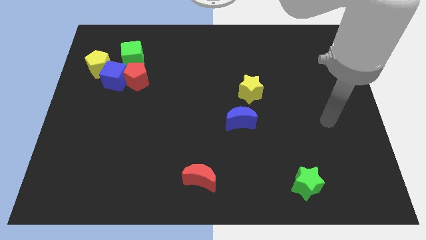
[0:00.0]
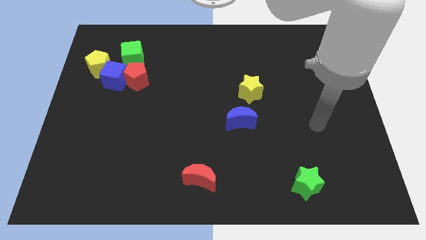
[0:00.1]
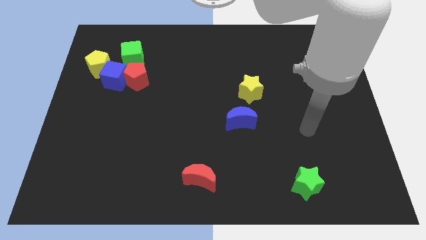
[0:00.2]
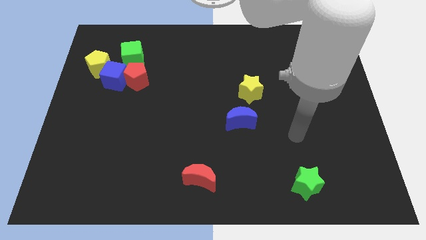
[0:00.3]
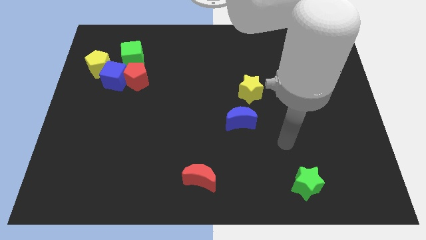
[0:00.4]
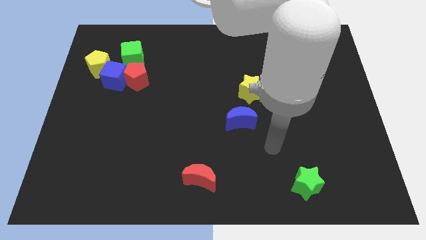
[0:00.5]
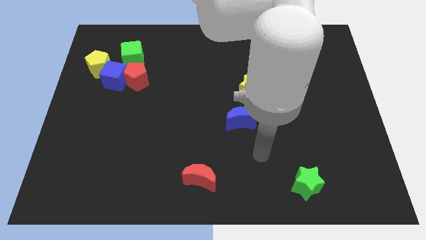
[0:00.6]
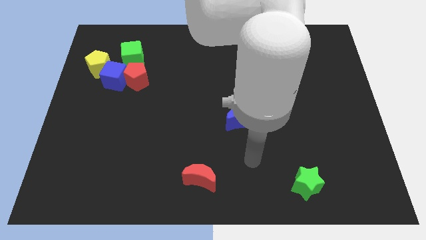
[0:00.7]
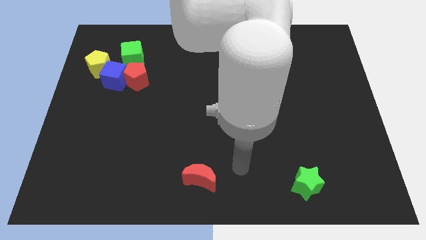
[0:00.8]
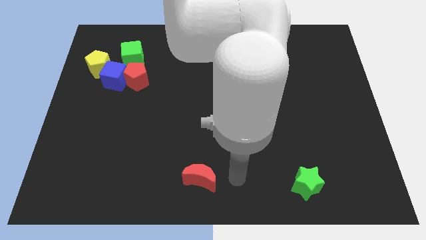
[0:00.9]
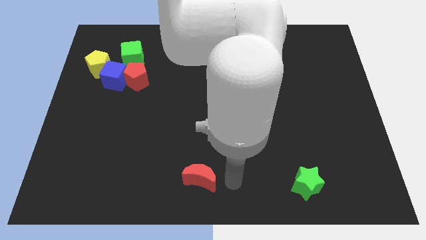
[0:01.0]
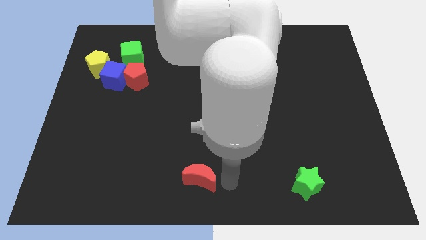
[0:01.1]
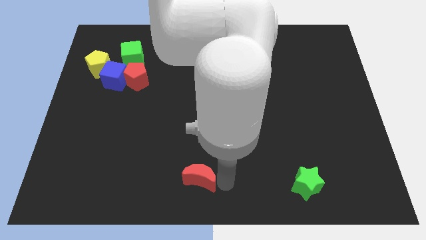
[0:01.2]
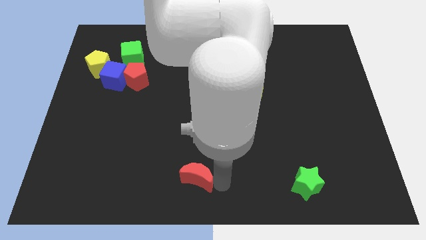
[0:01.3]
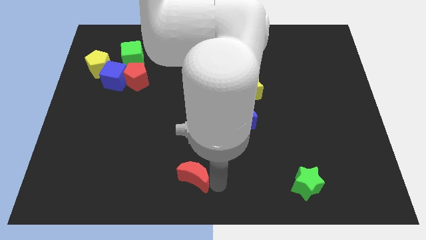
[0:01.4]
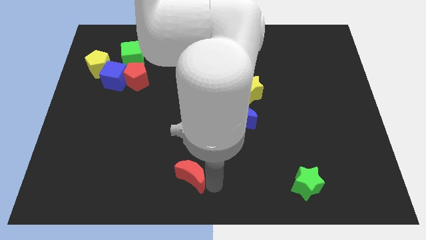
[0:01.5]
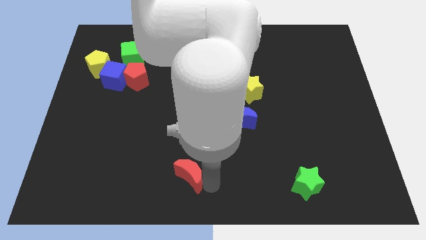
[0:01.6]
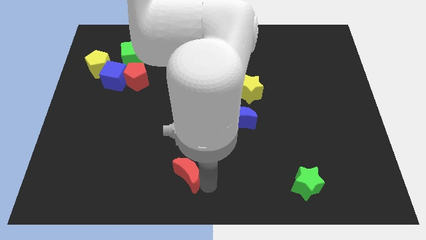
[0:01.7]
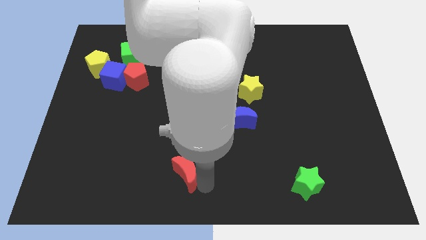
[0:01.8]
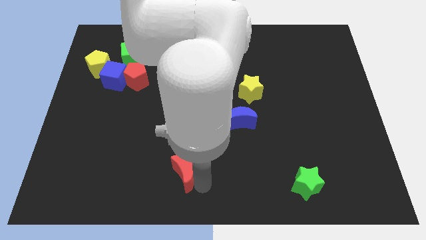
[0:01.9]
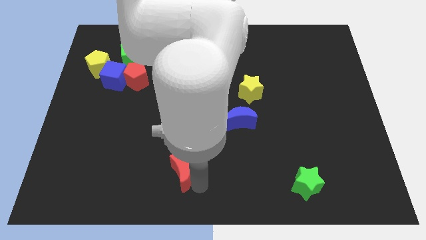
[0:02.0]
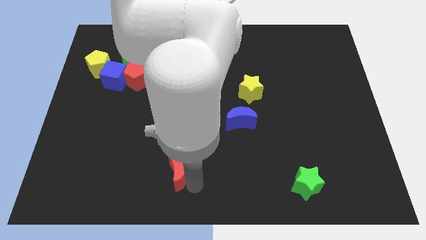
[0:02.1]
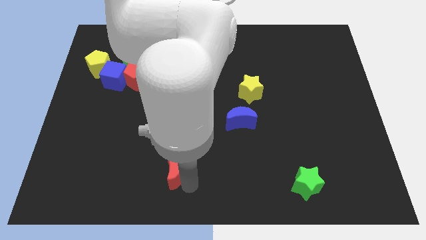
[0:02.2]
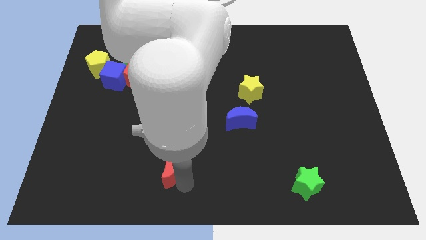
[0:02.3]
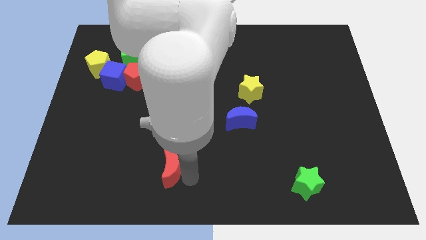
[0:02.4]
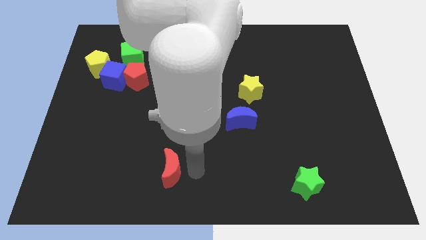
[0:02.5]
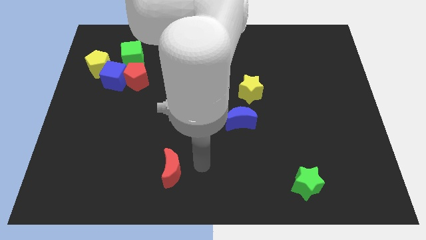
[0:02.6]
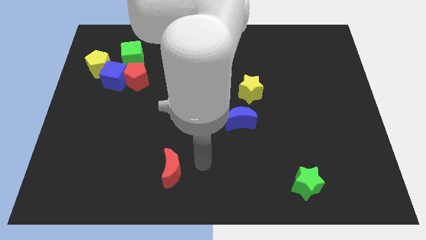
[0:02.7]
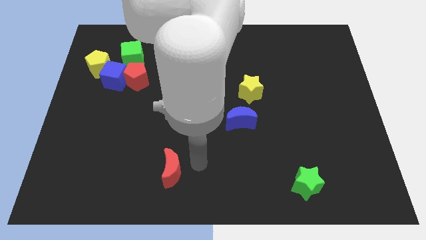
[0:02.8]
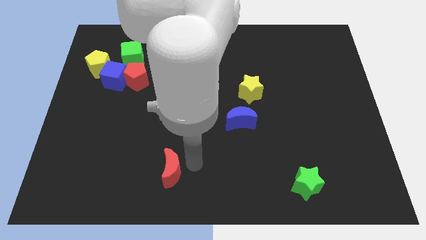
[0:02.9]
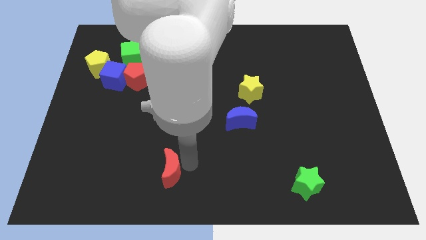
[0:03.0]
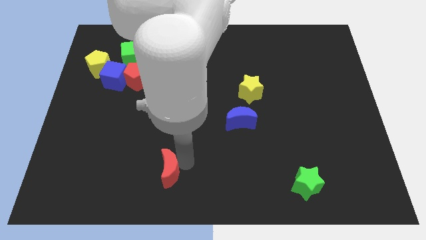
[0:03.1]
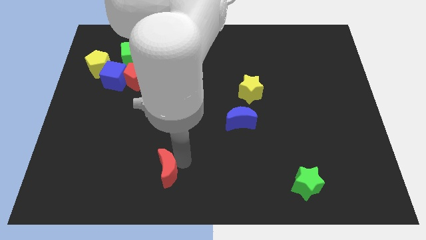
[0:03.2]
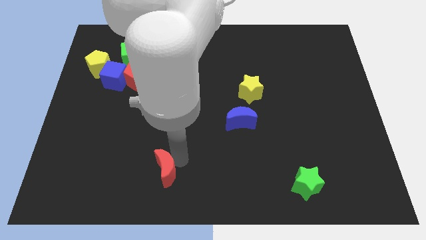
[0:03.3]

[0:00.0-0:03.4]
slightly move the red moon to the left

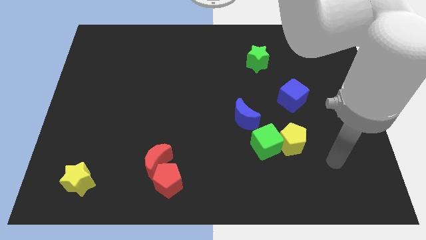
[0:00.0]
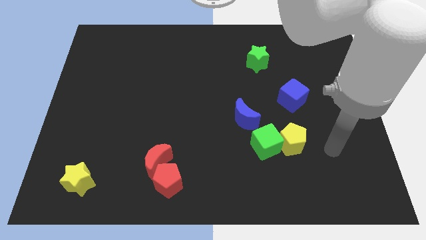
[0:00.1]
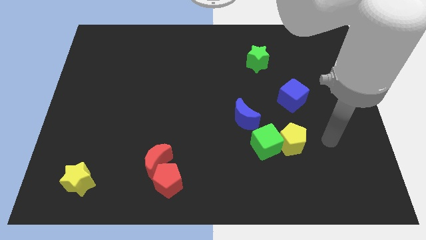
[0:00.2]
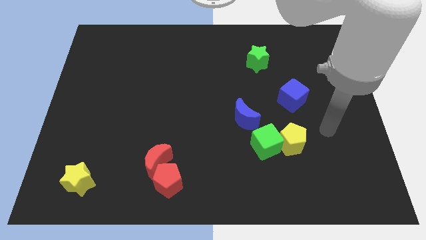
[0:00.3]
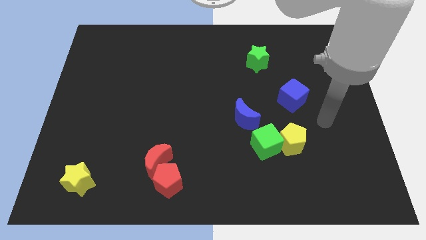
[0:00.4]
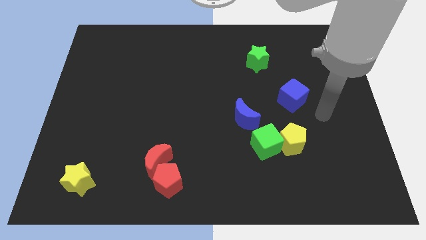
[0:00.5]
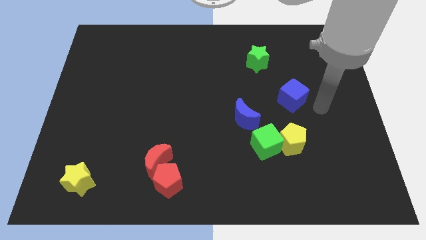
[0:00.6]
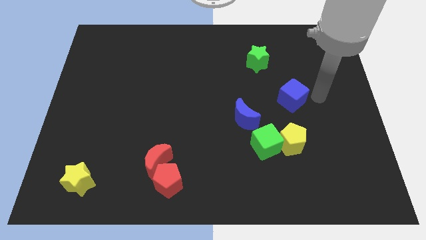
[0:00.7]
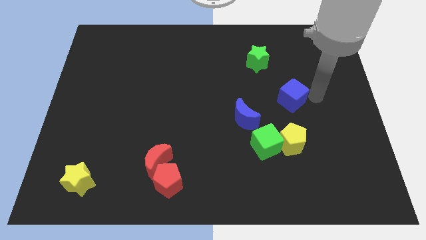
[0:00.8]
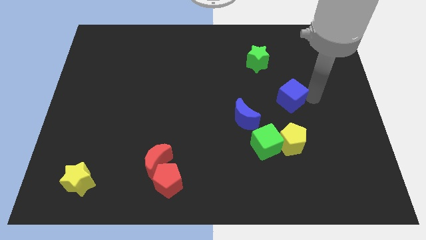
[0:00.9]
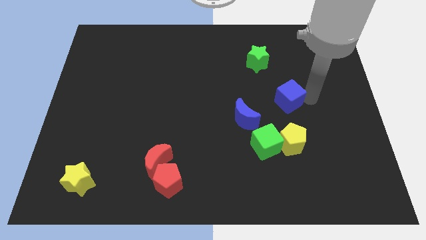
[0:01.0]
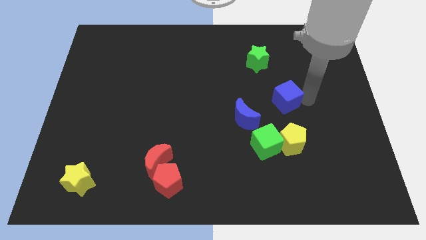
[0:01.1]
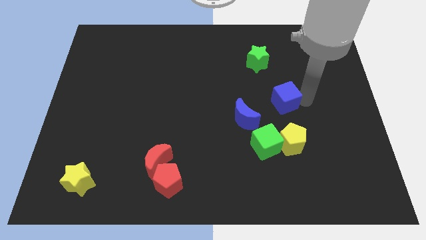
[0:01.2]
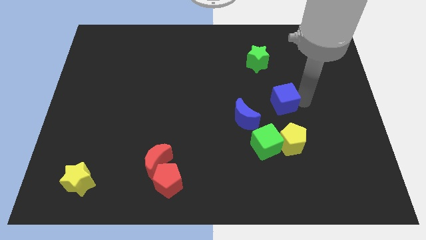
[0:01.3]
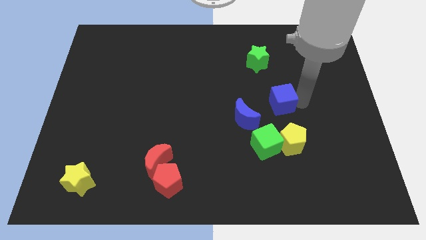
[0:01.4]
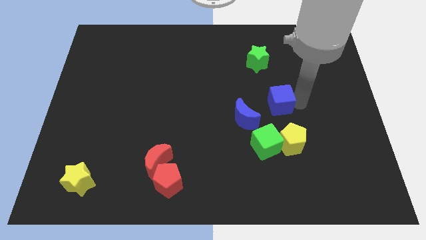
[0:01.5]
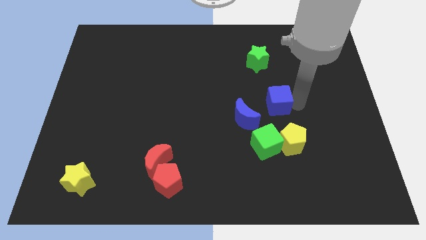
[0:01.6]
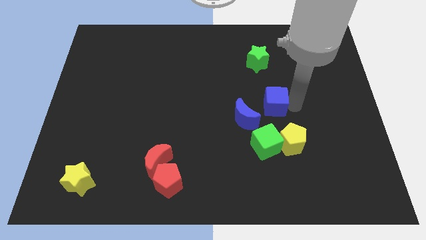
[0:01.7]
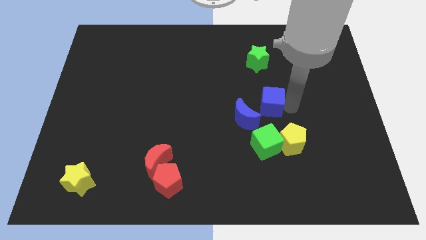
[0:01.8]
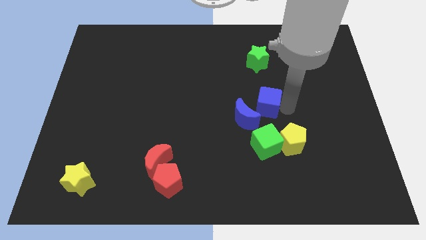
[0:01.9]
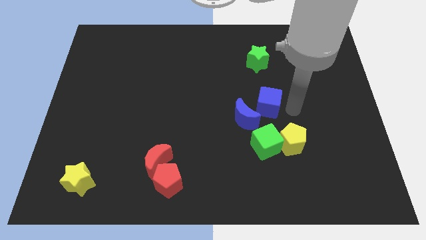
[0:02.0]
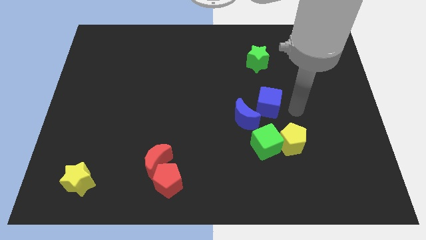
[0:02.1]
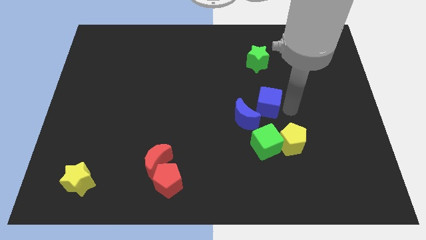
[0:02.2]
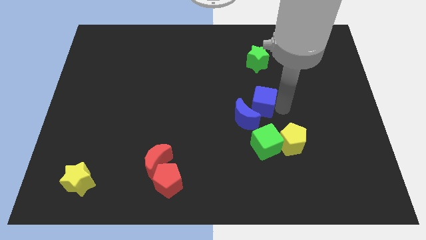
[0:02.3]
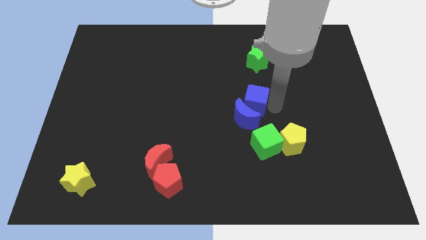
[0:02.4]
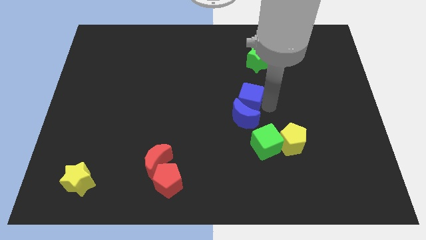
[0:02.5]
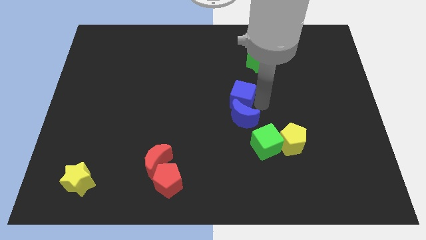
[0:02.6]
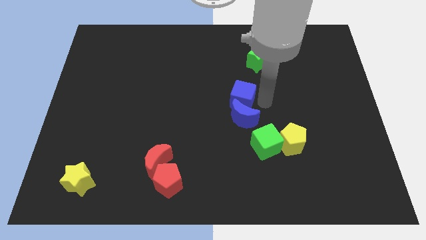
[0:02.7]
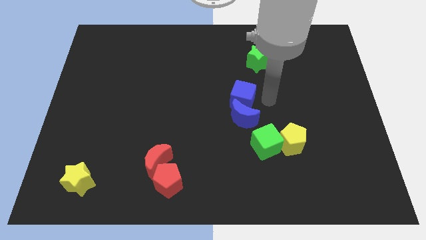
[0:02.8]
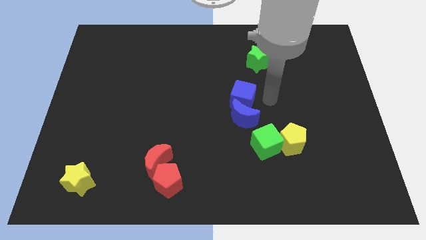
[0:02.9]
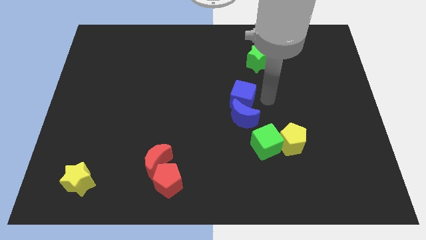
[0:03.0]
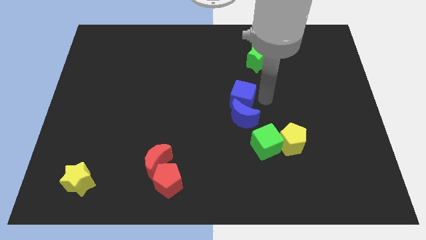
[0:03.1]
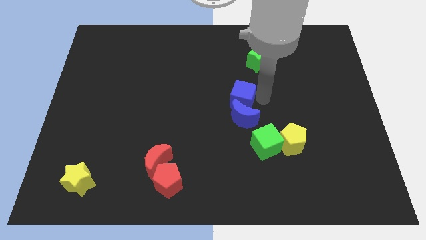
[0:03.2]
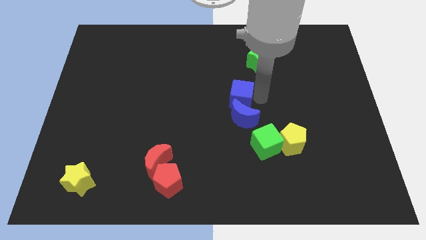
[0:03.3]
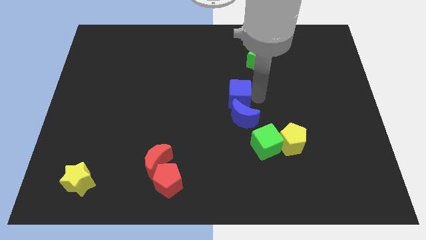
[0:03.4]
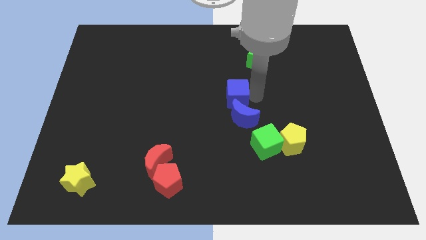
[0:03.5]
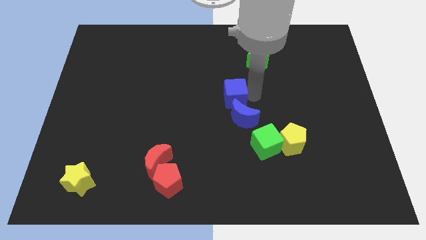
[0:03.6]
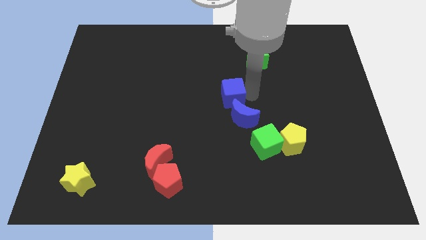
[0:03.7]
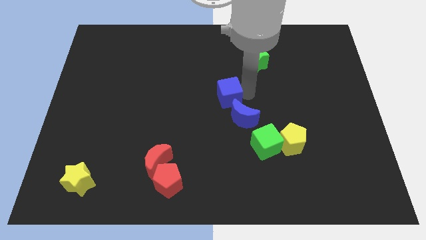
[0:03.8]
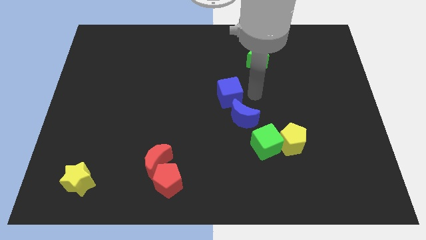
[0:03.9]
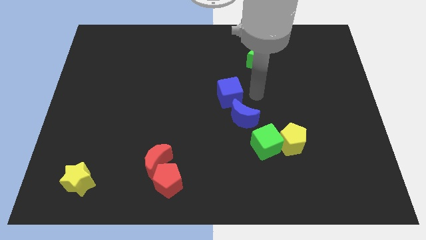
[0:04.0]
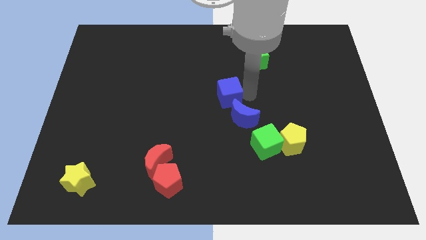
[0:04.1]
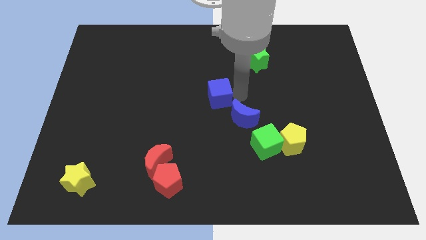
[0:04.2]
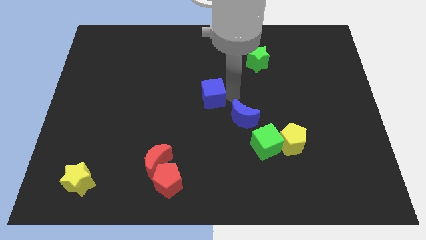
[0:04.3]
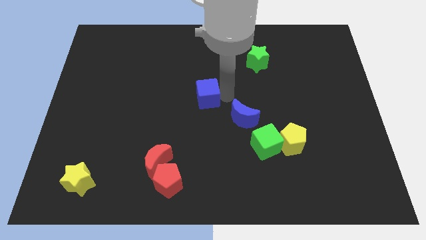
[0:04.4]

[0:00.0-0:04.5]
move the blue cube to the left

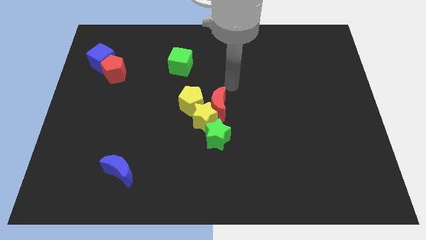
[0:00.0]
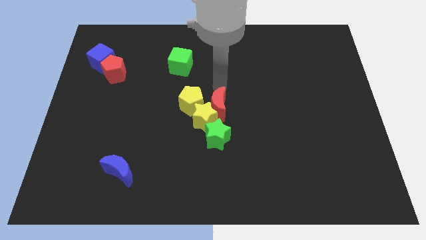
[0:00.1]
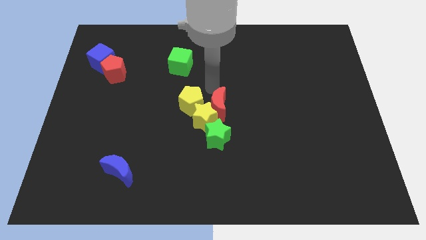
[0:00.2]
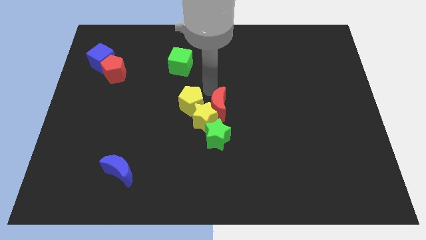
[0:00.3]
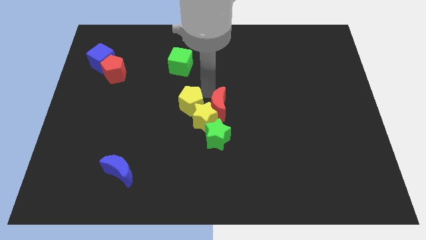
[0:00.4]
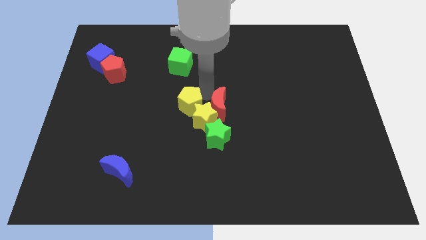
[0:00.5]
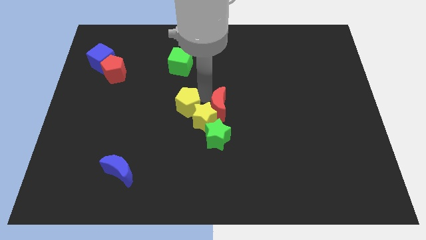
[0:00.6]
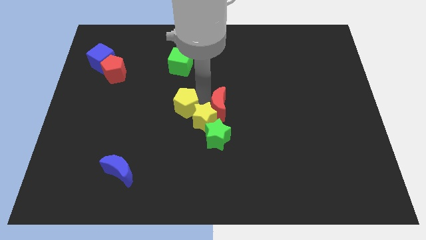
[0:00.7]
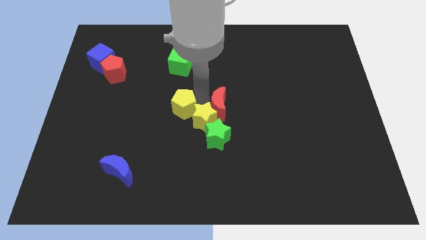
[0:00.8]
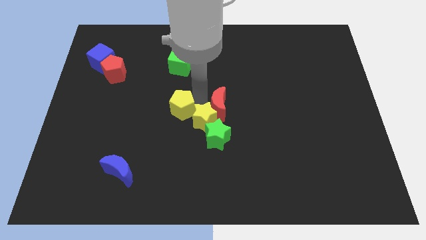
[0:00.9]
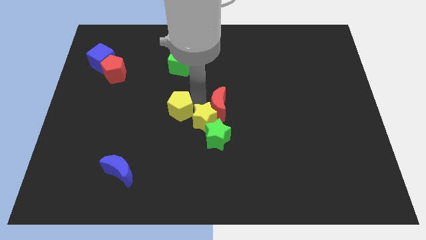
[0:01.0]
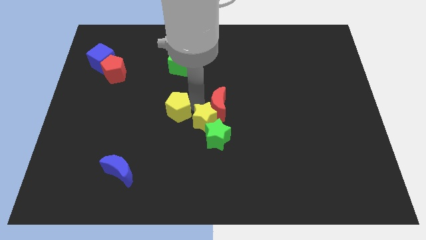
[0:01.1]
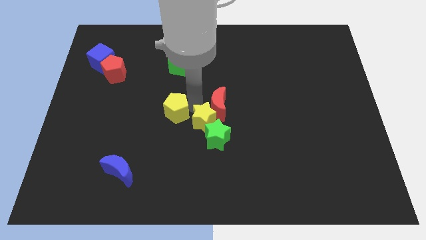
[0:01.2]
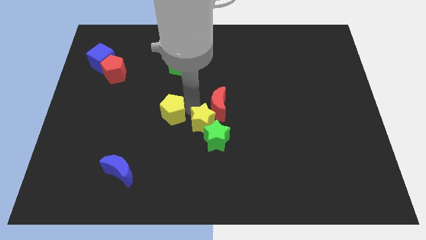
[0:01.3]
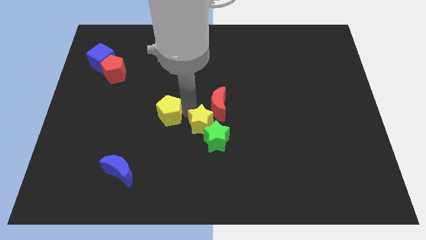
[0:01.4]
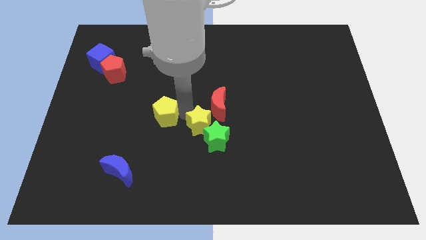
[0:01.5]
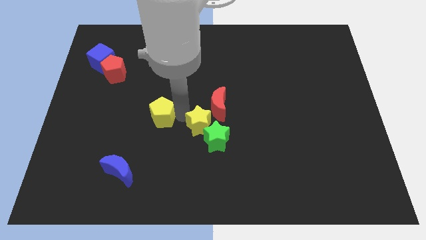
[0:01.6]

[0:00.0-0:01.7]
push the yellow pentagon a bit downwards and left diagonally
